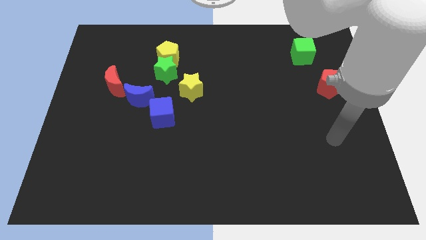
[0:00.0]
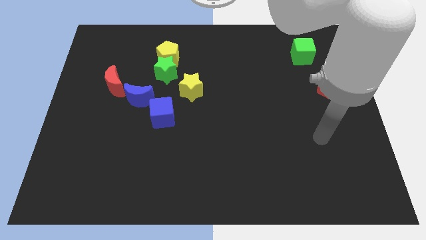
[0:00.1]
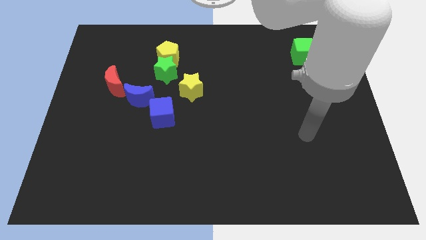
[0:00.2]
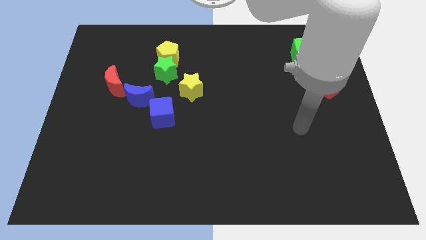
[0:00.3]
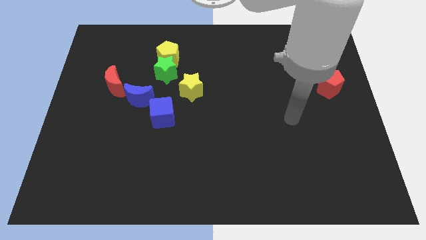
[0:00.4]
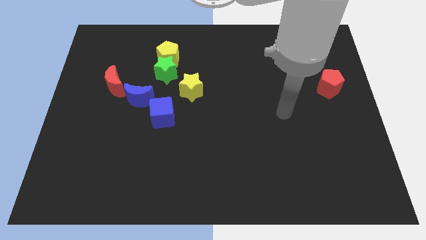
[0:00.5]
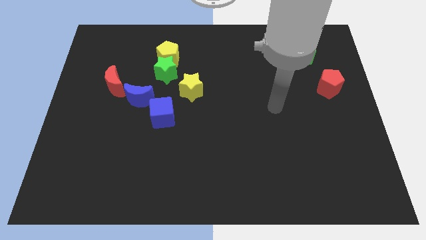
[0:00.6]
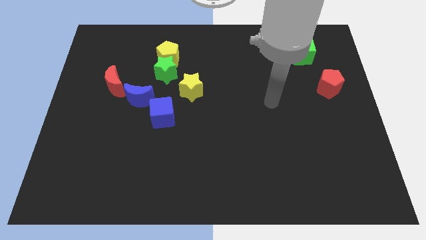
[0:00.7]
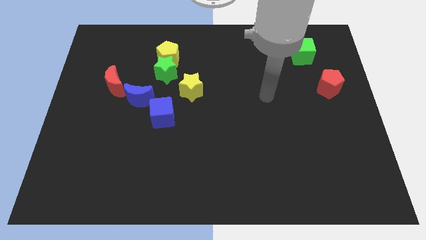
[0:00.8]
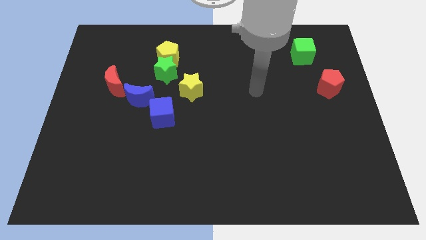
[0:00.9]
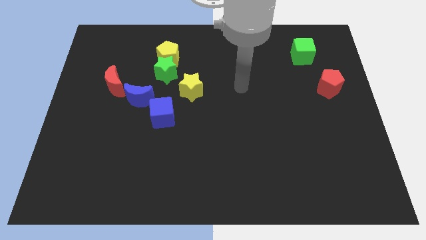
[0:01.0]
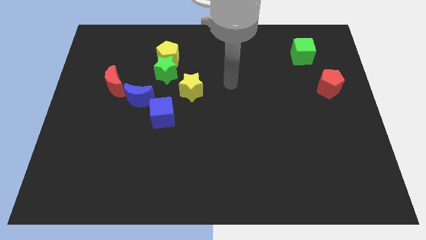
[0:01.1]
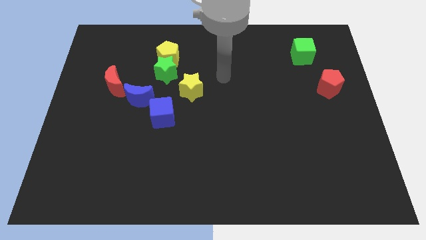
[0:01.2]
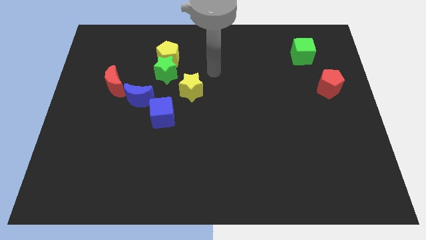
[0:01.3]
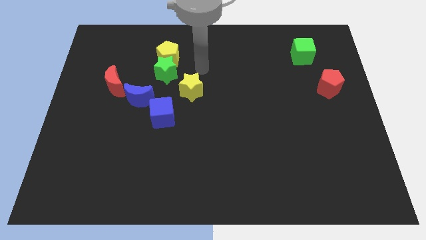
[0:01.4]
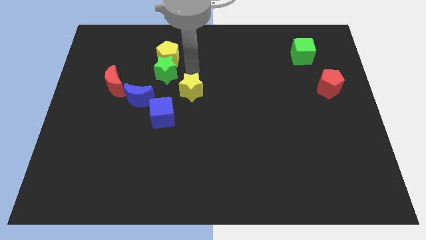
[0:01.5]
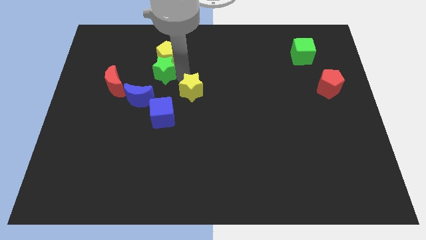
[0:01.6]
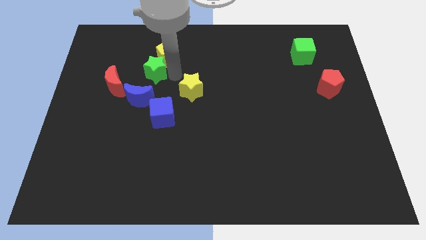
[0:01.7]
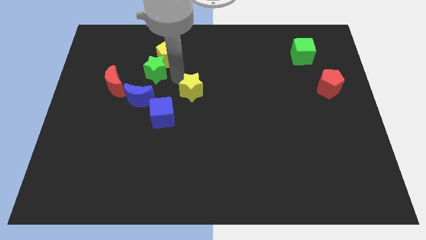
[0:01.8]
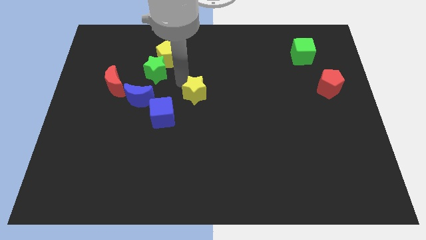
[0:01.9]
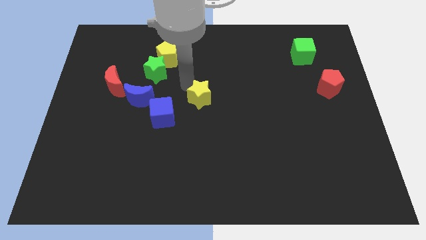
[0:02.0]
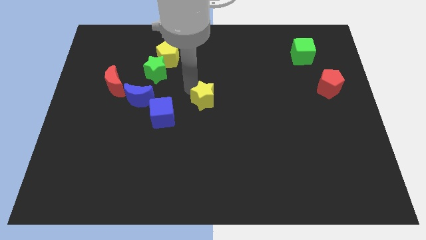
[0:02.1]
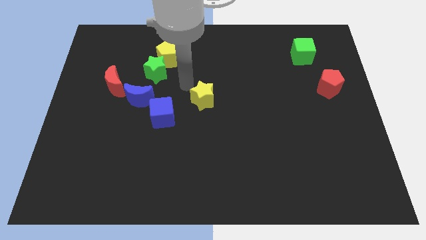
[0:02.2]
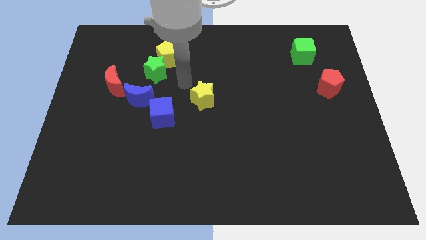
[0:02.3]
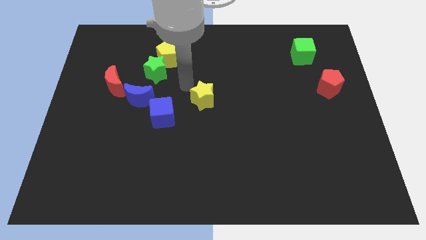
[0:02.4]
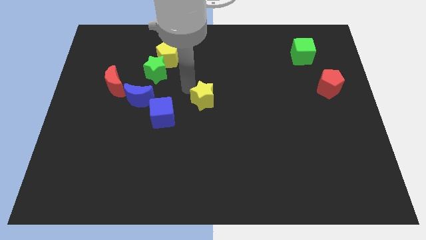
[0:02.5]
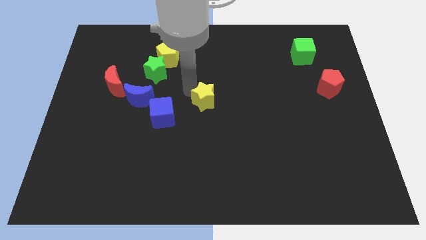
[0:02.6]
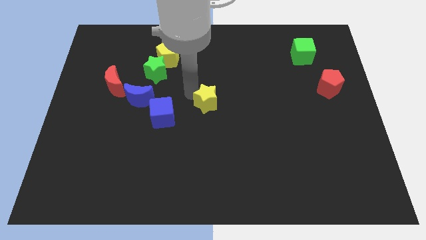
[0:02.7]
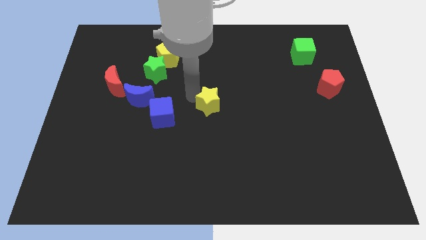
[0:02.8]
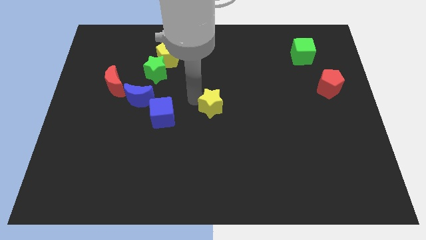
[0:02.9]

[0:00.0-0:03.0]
slightly push the yellow star downwards and right

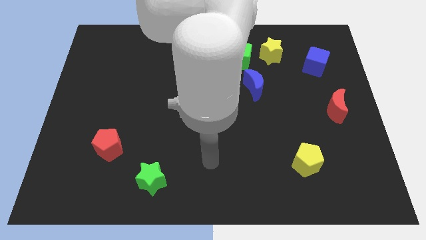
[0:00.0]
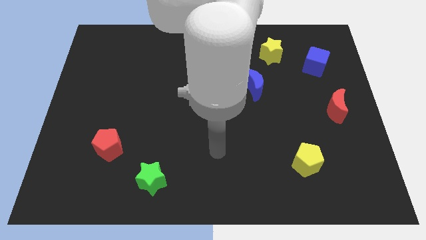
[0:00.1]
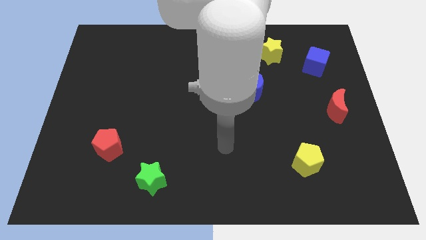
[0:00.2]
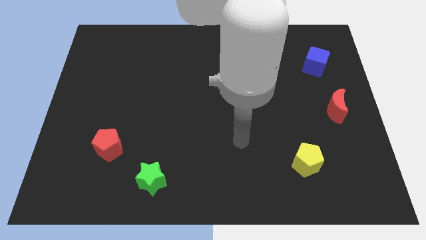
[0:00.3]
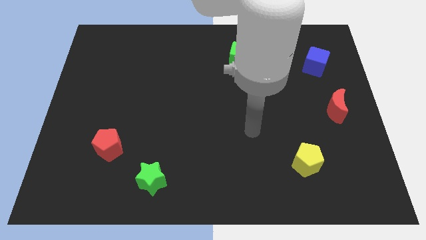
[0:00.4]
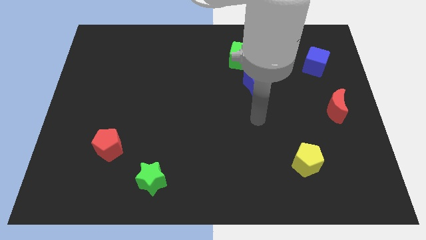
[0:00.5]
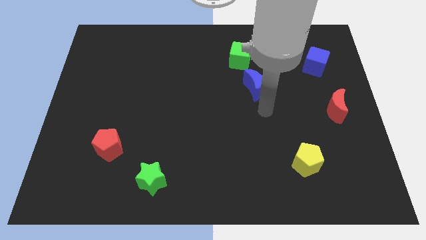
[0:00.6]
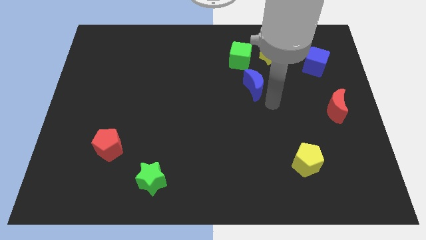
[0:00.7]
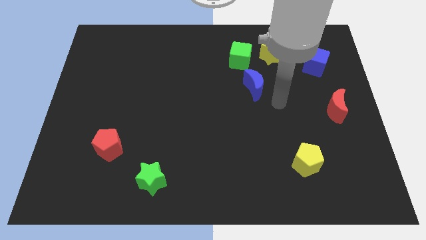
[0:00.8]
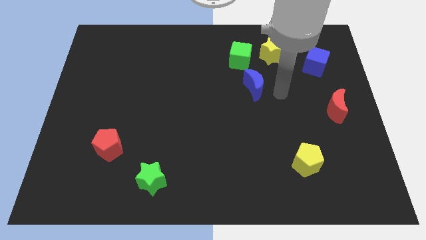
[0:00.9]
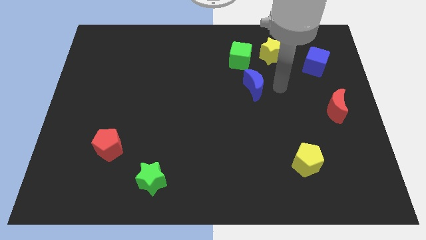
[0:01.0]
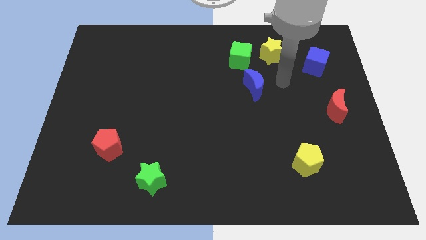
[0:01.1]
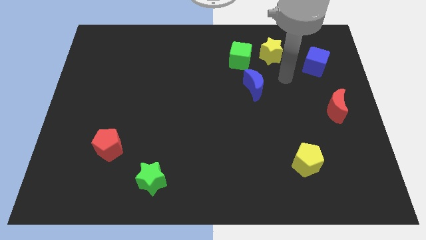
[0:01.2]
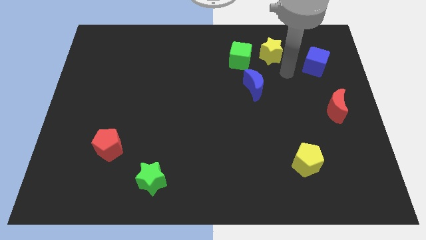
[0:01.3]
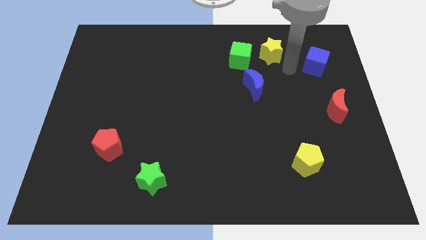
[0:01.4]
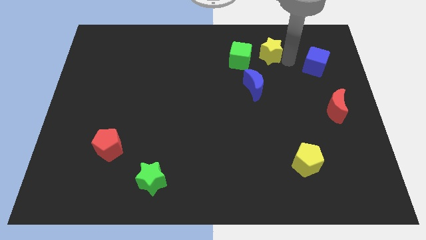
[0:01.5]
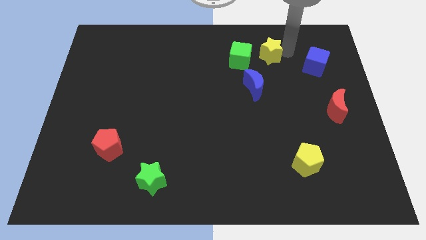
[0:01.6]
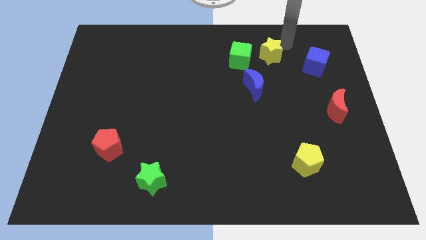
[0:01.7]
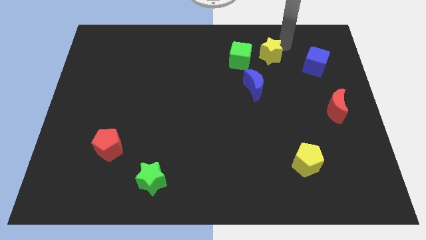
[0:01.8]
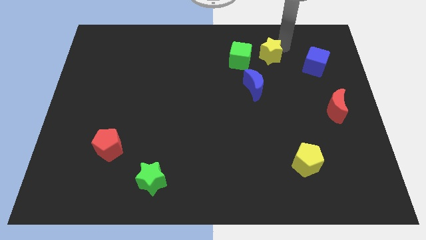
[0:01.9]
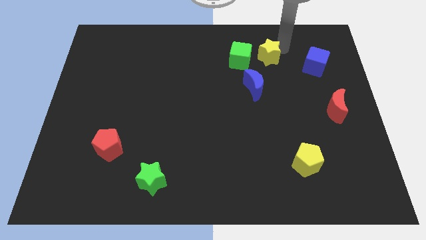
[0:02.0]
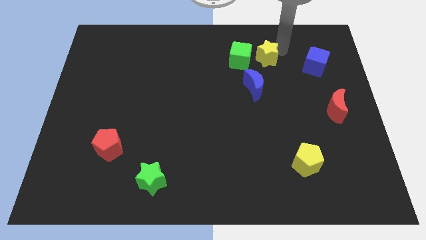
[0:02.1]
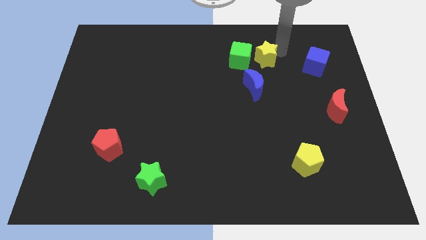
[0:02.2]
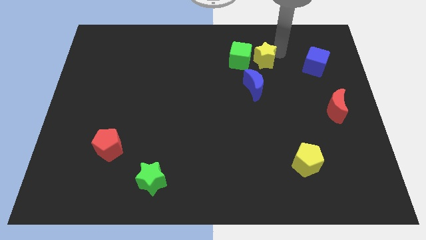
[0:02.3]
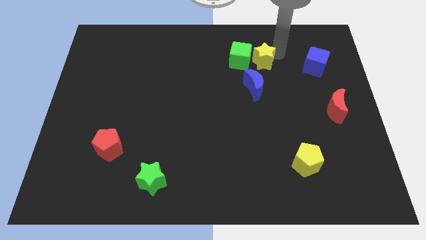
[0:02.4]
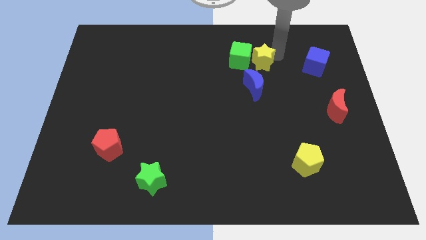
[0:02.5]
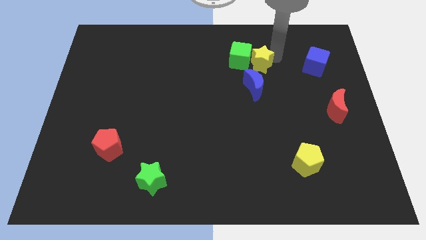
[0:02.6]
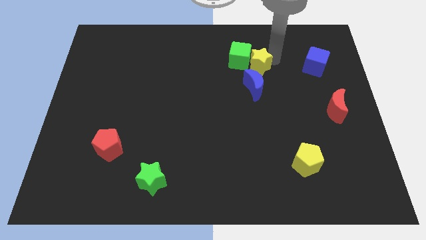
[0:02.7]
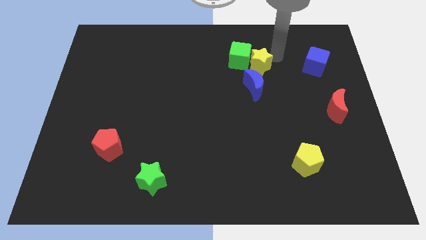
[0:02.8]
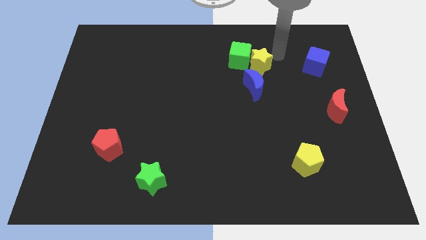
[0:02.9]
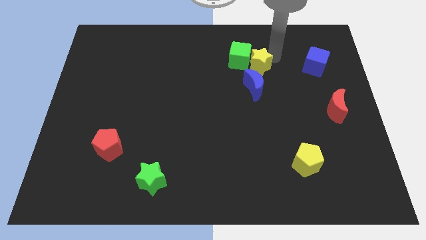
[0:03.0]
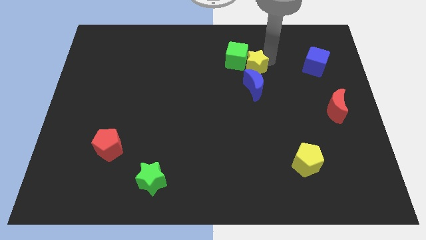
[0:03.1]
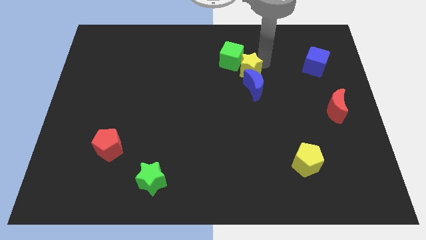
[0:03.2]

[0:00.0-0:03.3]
slightly push the yellow star downwards and left diagonally

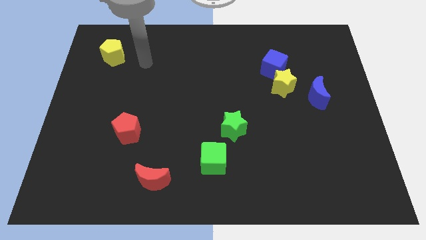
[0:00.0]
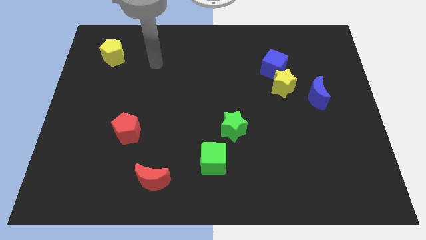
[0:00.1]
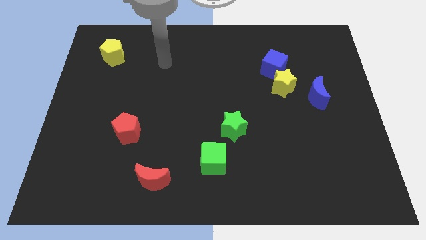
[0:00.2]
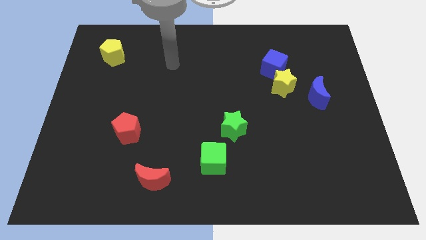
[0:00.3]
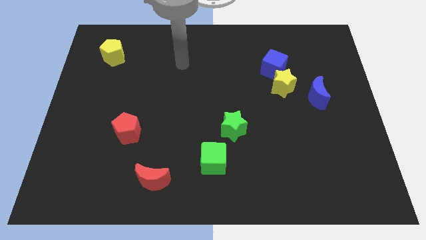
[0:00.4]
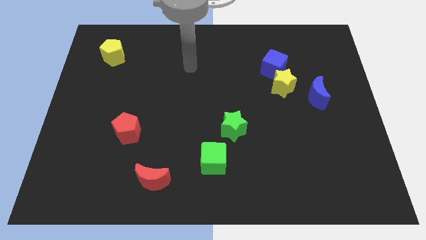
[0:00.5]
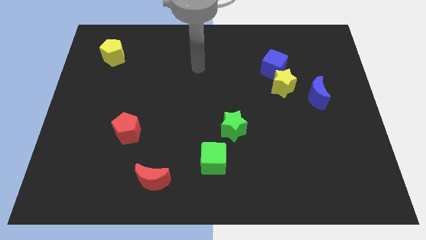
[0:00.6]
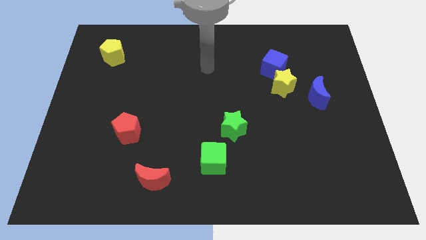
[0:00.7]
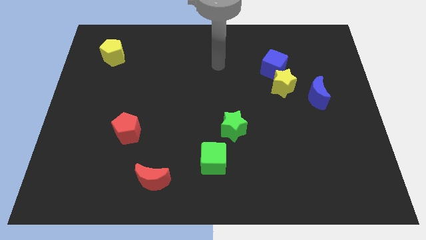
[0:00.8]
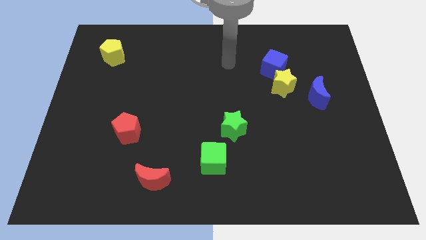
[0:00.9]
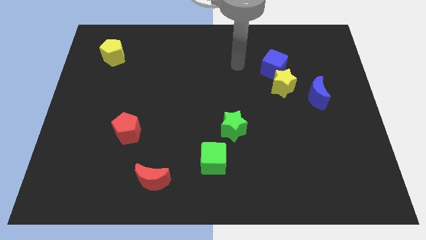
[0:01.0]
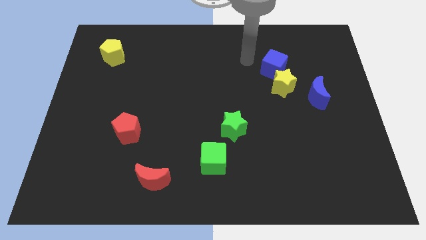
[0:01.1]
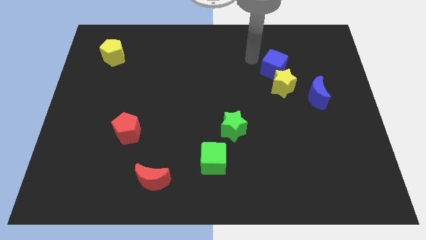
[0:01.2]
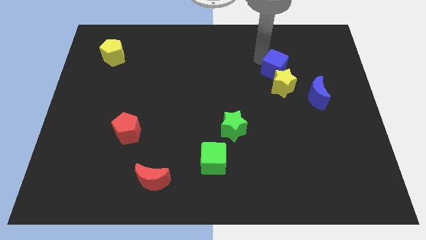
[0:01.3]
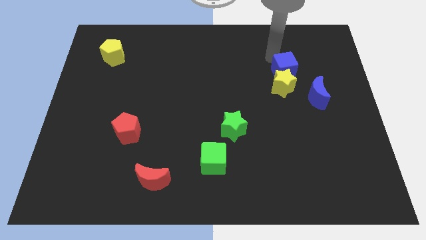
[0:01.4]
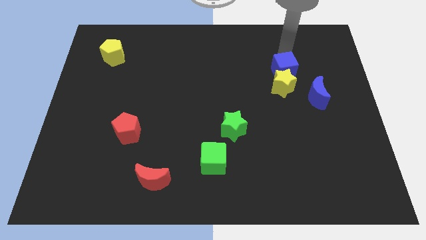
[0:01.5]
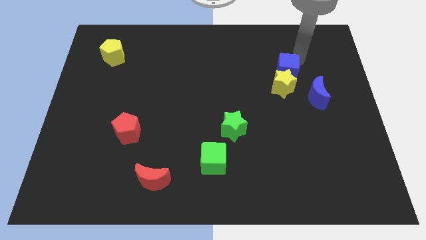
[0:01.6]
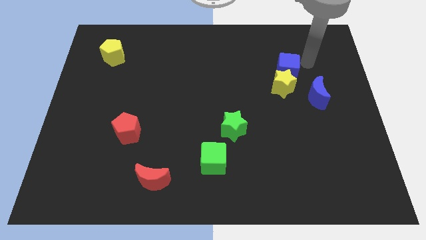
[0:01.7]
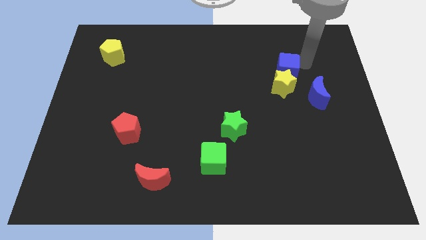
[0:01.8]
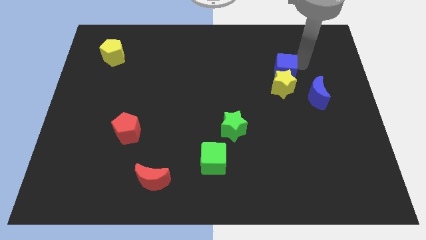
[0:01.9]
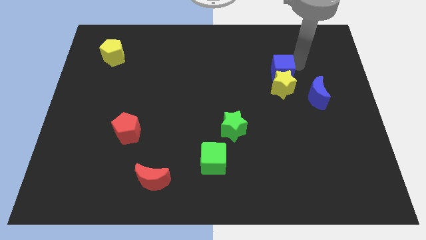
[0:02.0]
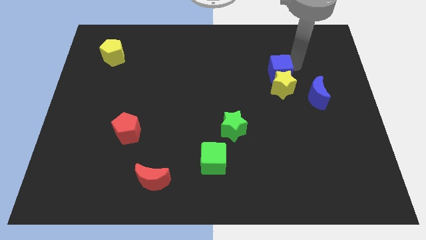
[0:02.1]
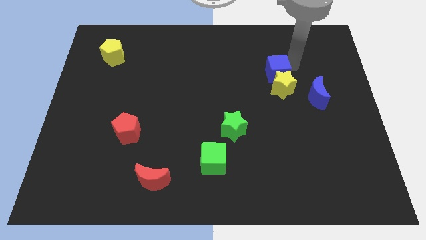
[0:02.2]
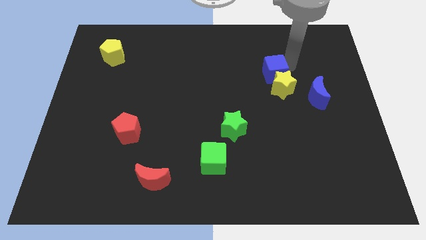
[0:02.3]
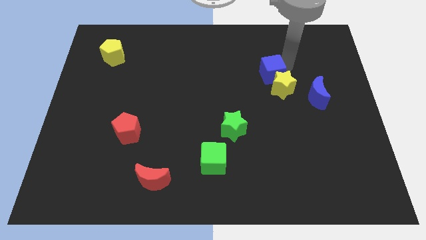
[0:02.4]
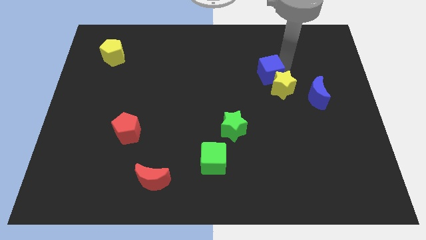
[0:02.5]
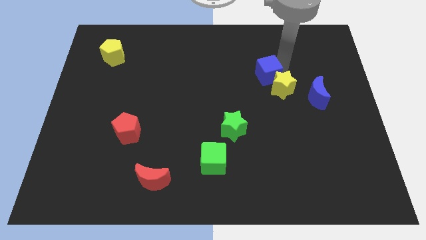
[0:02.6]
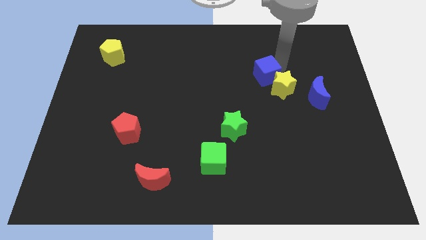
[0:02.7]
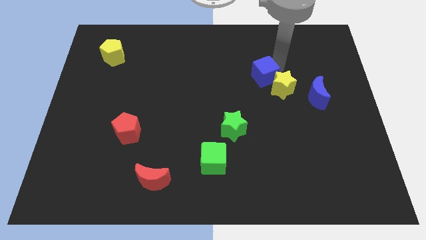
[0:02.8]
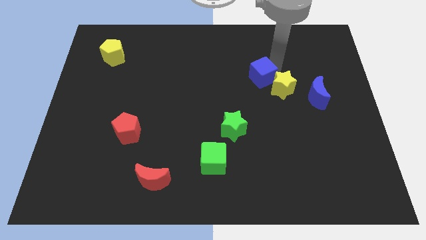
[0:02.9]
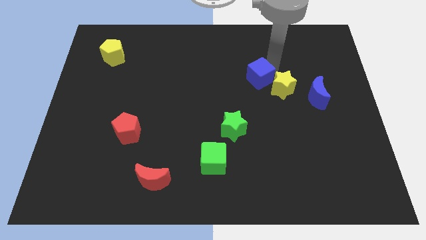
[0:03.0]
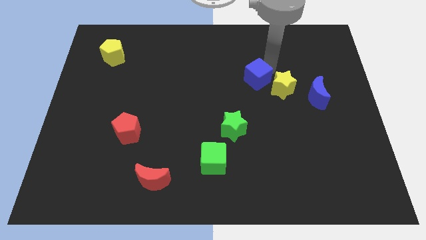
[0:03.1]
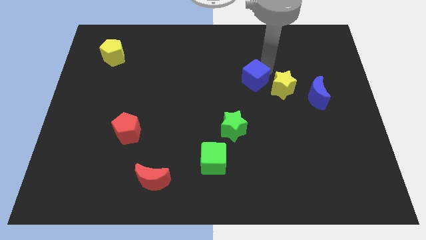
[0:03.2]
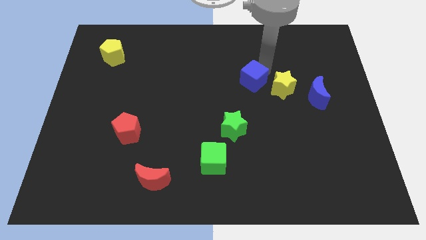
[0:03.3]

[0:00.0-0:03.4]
slide the blue cube downwards and to the left diagonally a bit
